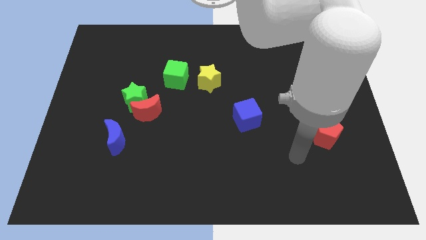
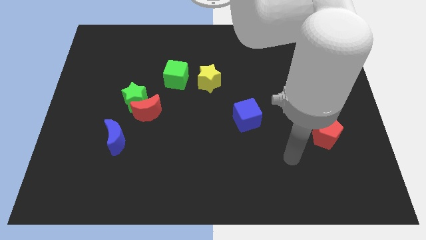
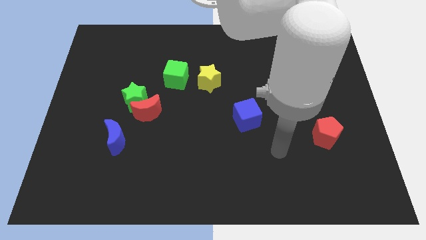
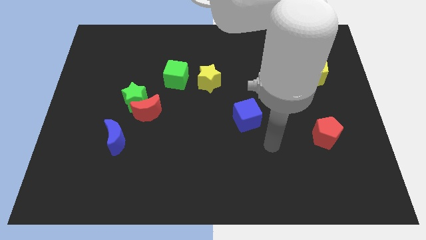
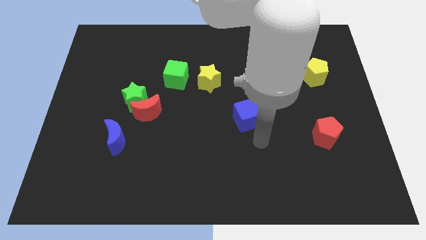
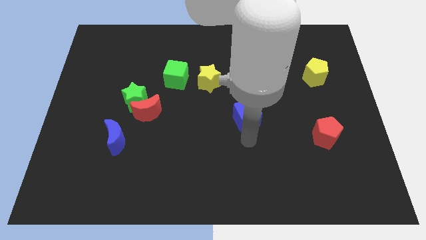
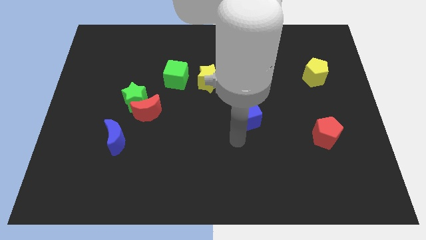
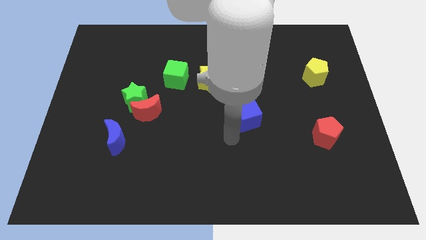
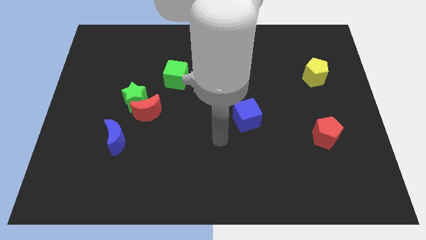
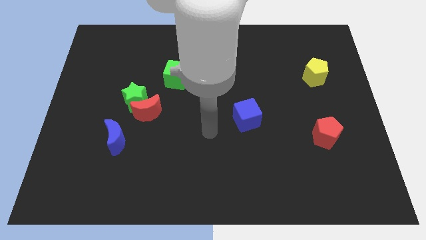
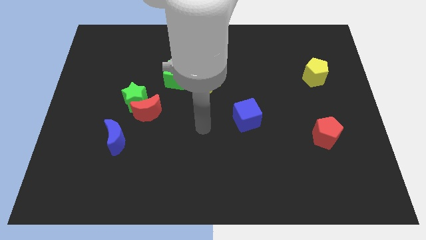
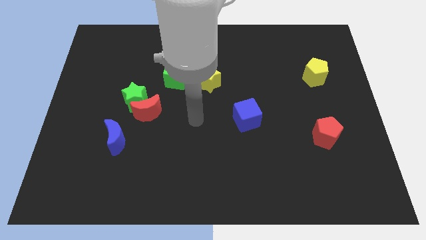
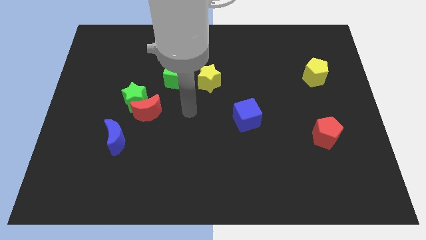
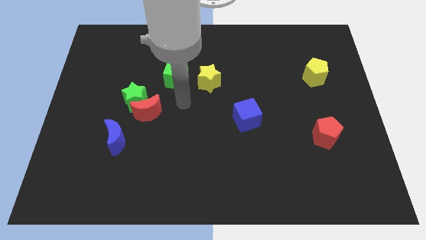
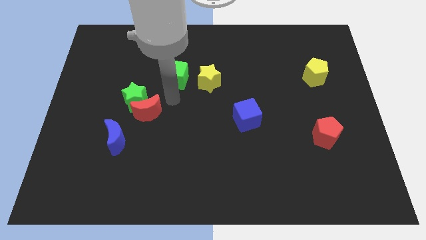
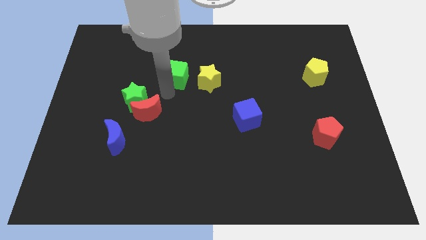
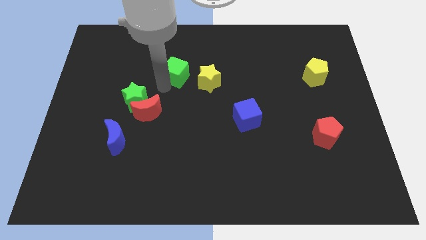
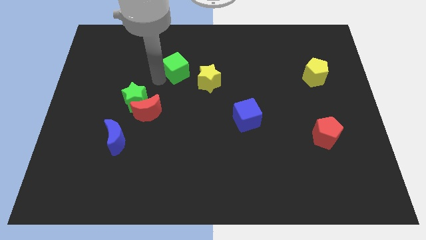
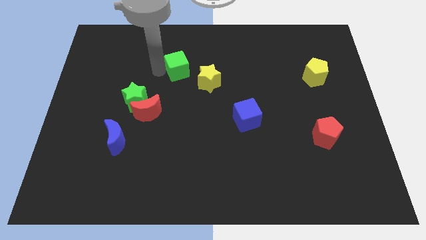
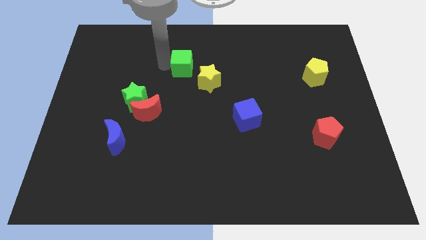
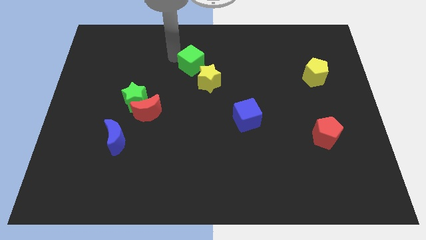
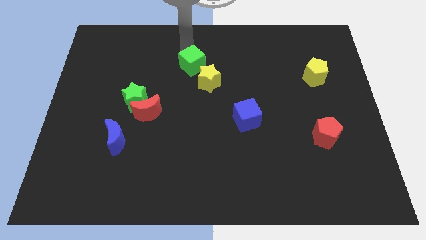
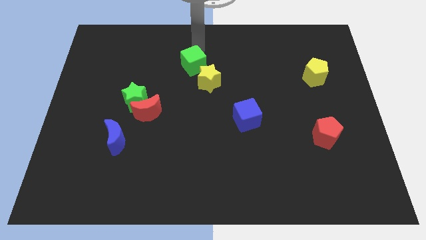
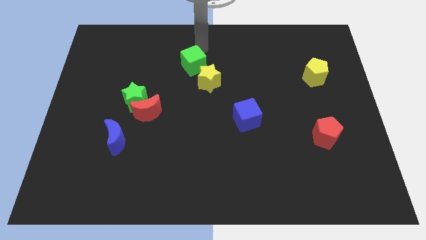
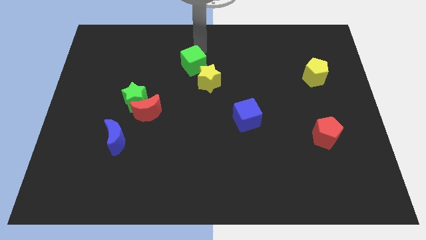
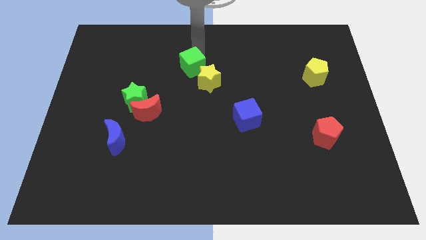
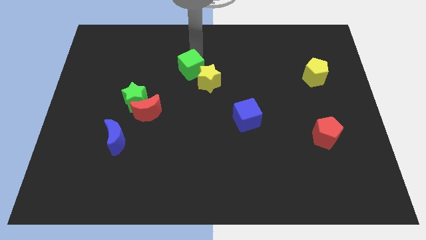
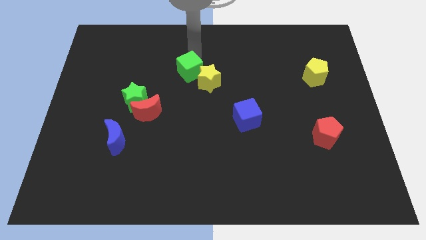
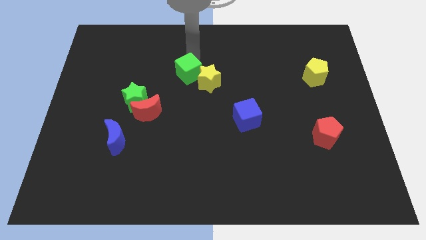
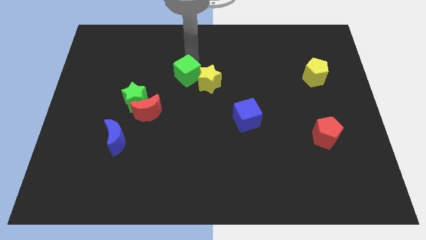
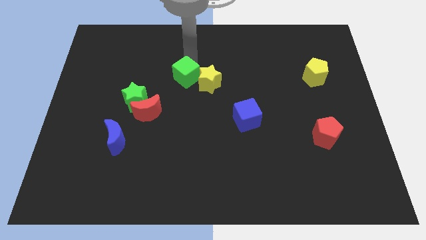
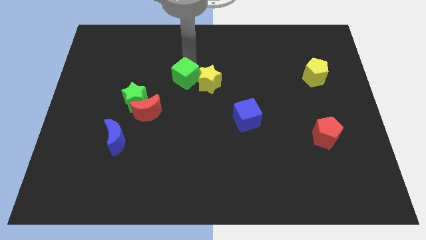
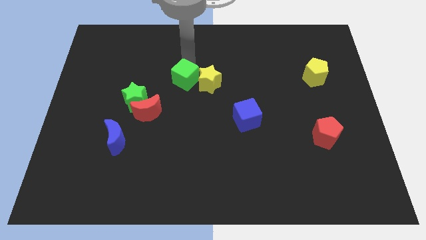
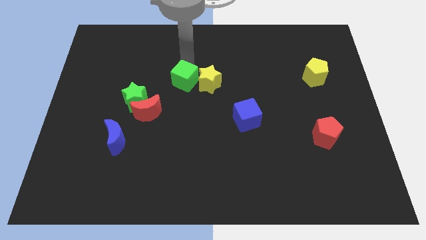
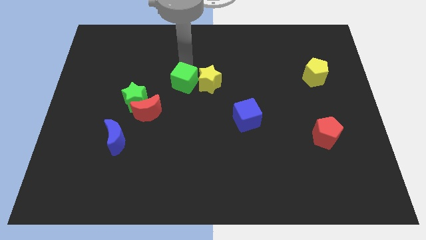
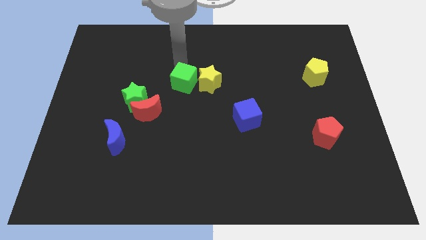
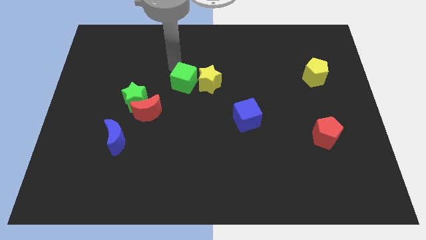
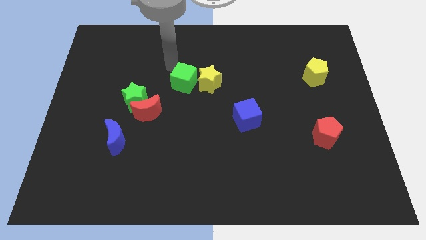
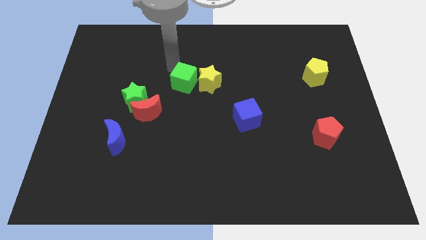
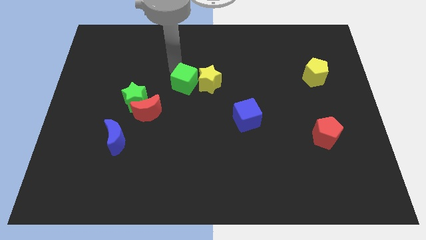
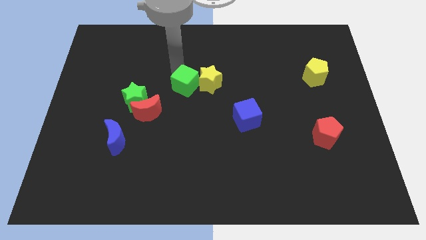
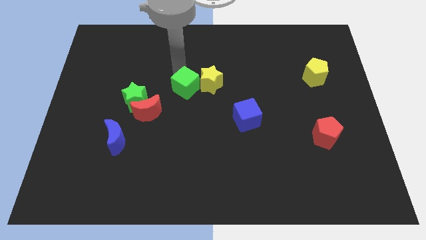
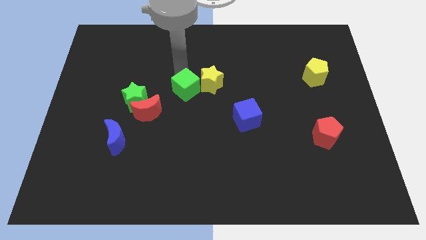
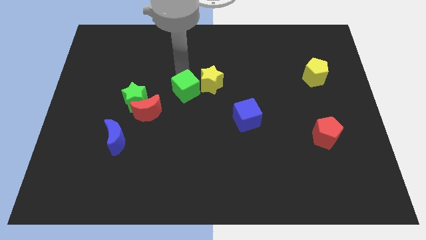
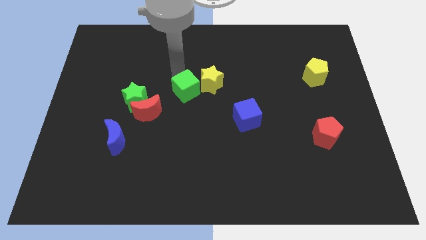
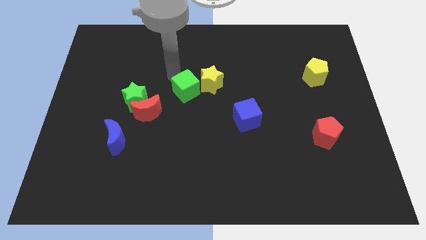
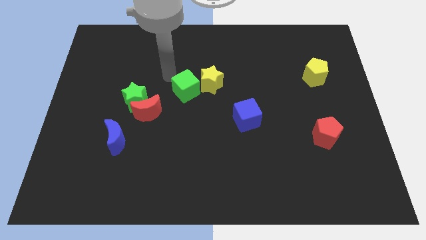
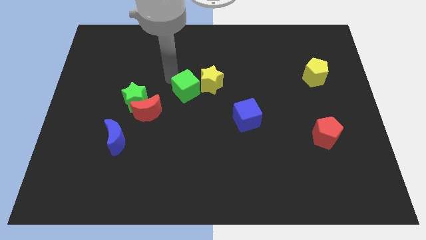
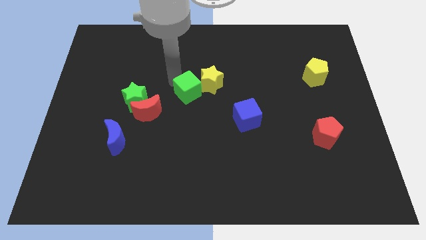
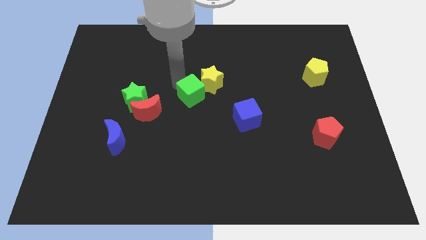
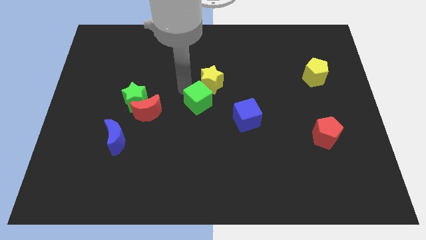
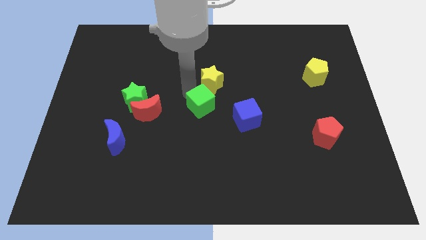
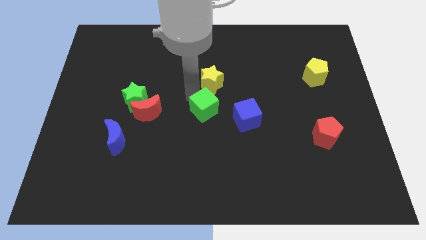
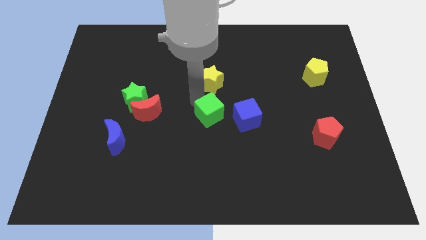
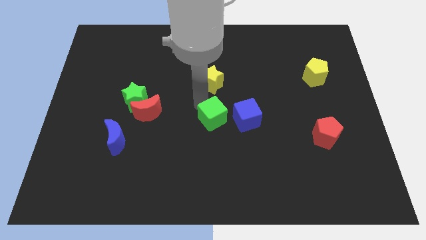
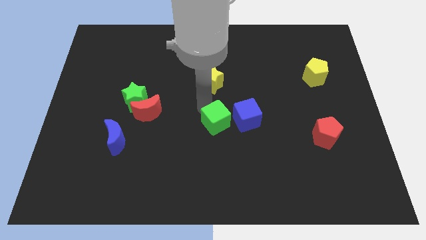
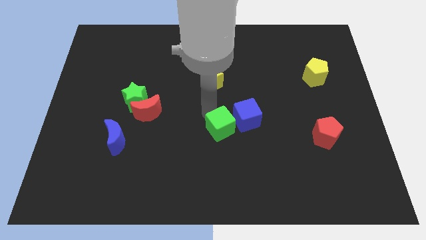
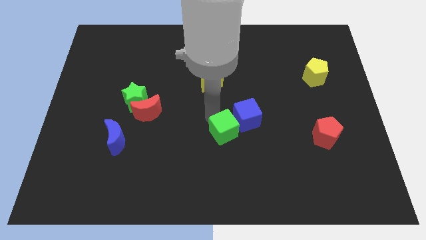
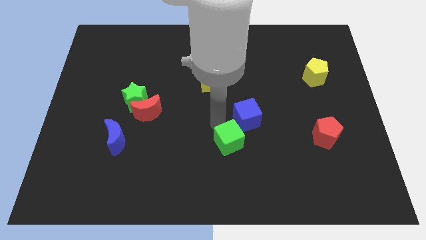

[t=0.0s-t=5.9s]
put the green cube to the bottom of the blue cube

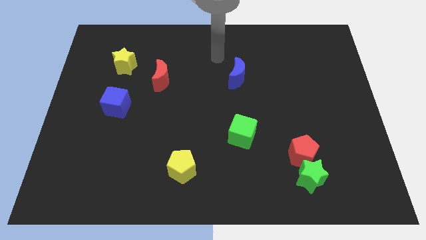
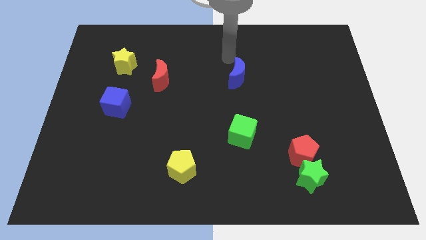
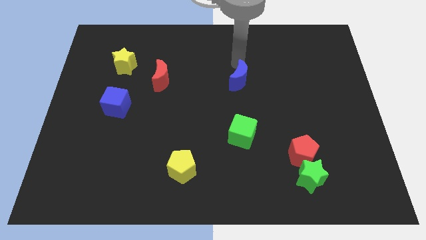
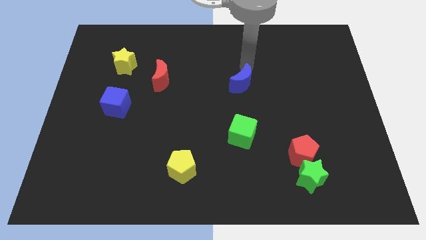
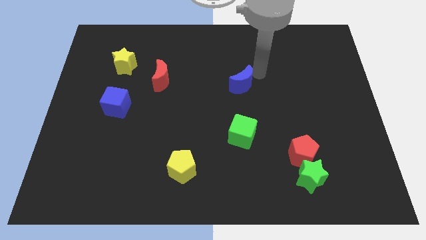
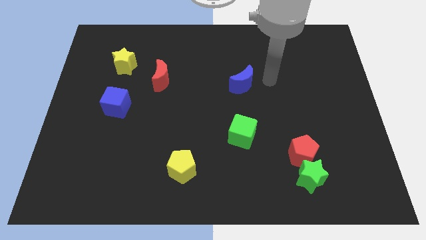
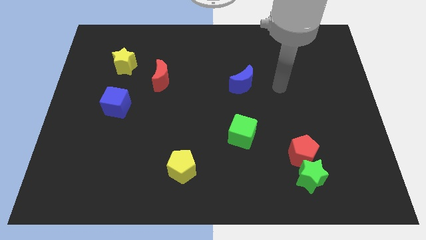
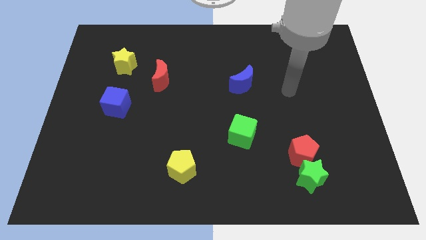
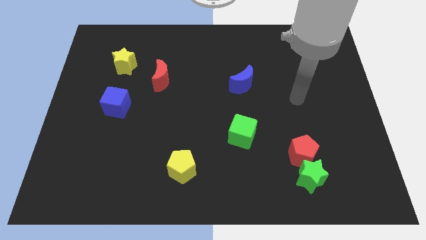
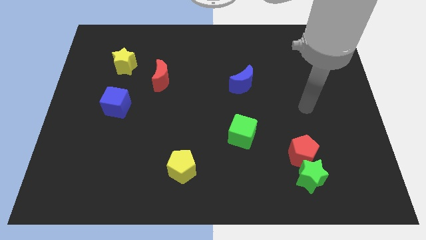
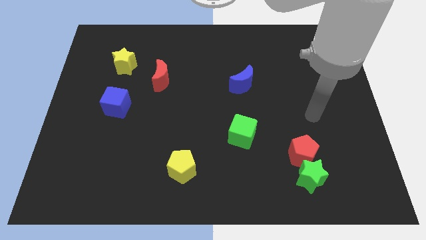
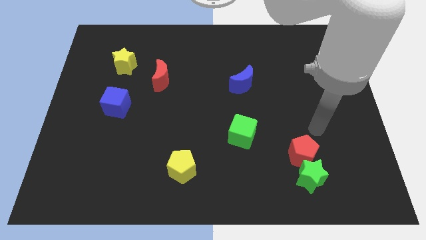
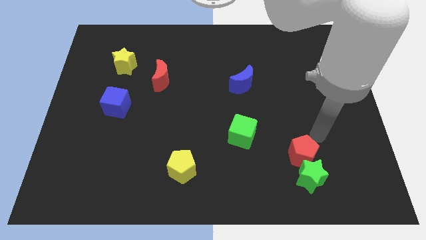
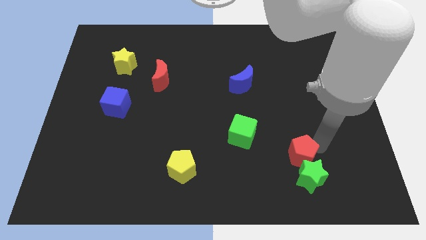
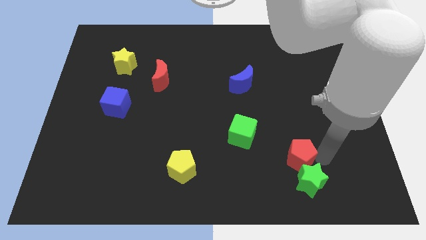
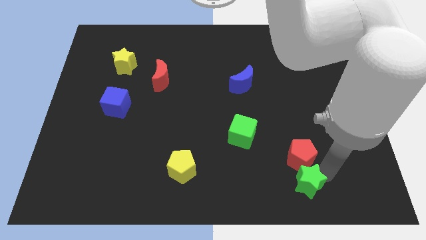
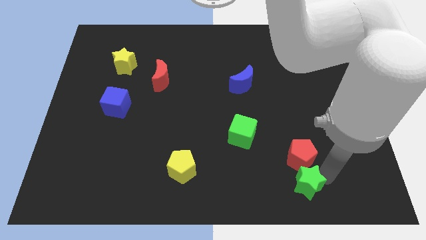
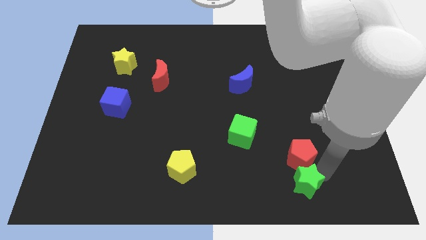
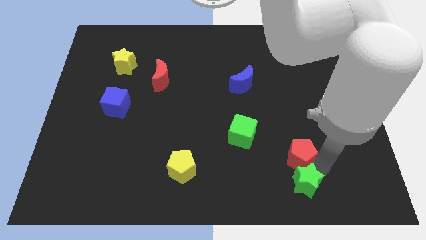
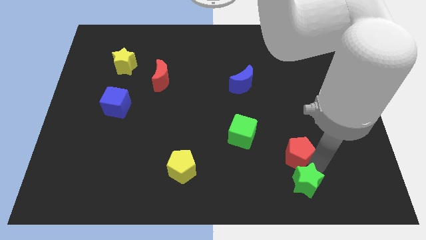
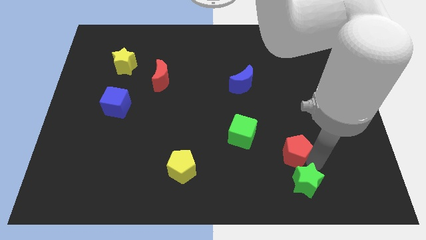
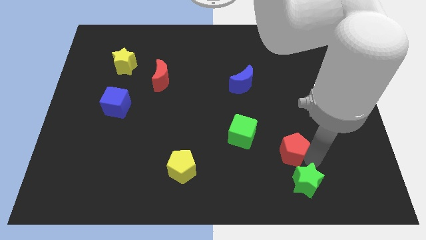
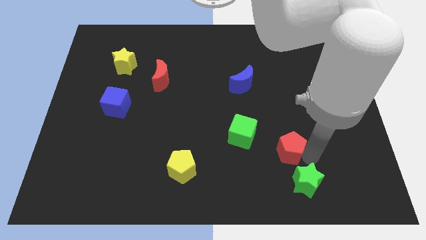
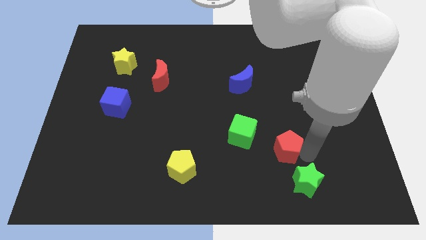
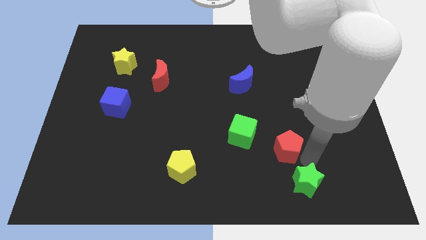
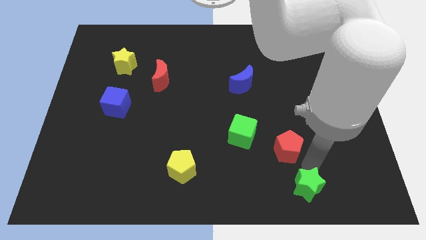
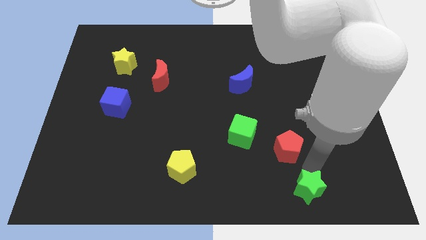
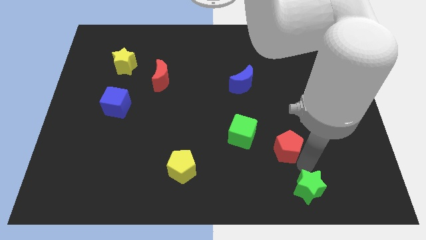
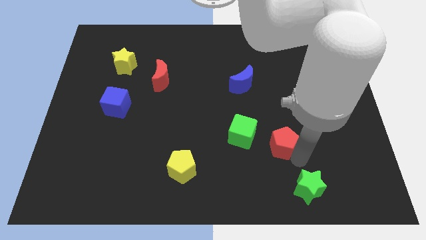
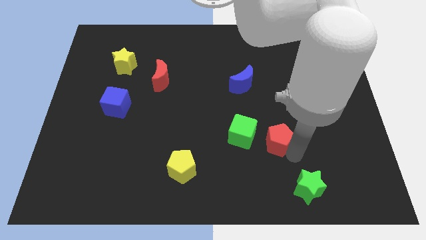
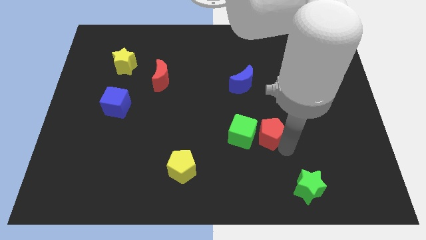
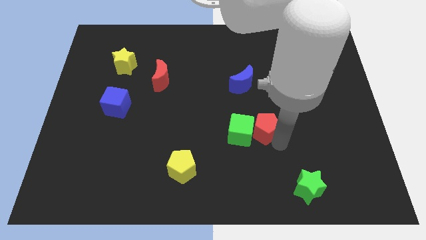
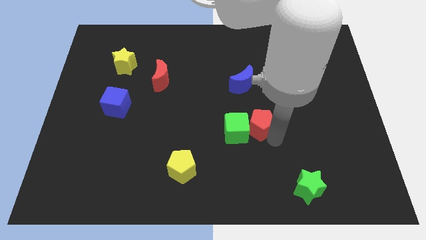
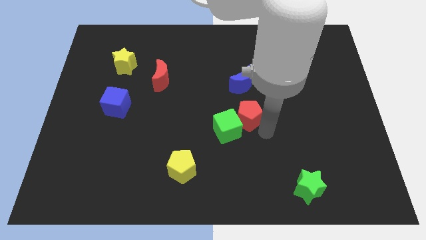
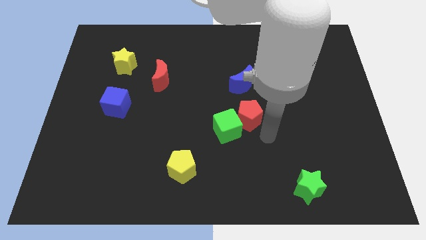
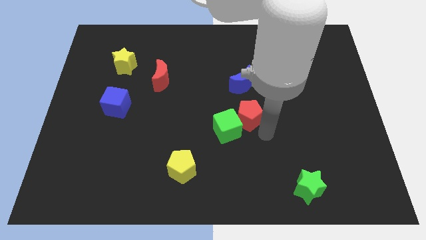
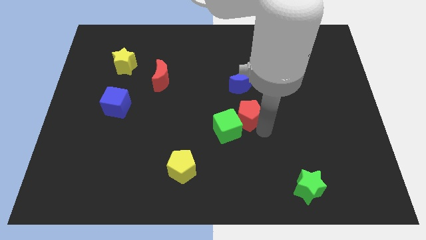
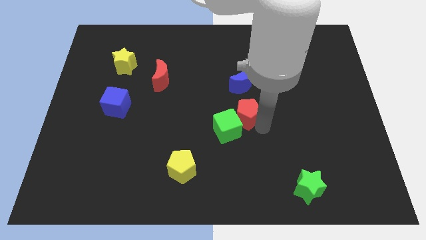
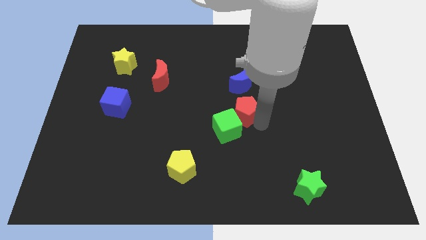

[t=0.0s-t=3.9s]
move the red pentagon above the green cube
